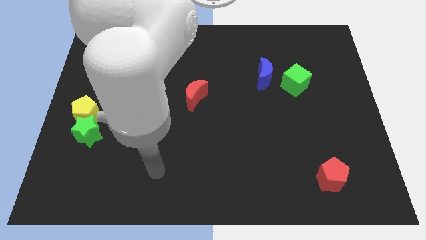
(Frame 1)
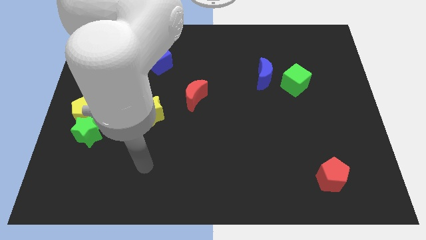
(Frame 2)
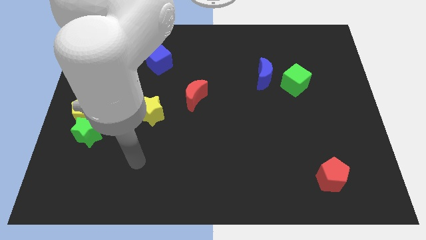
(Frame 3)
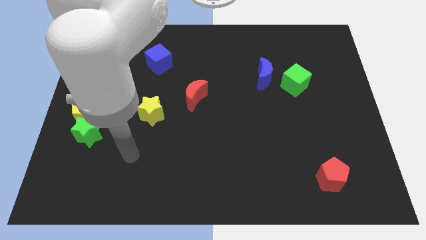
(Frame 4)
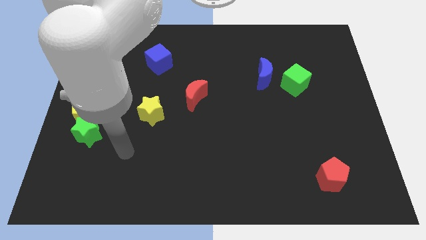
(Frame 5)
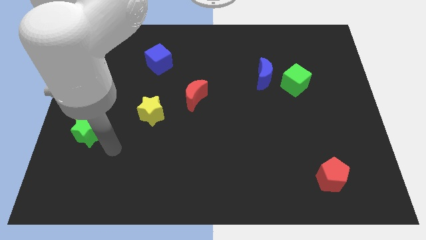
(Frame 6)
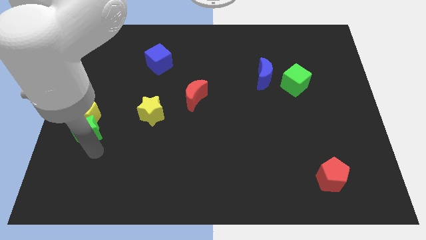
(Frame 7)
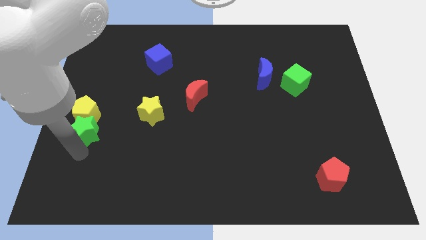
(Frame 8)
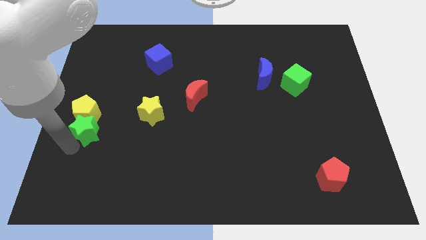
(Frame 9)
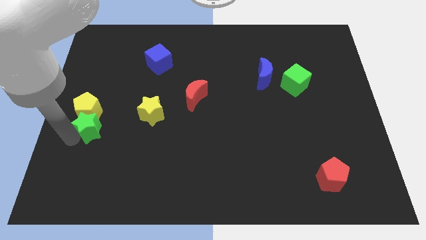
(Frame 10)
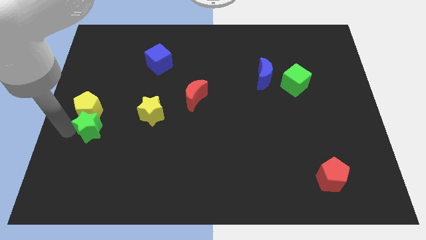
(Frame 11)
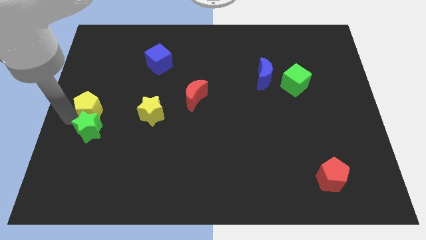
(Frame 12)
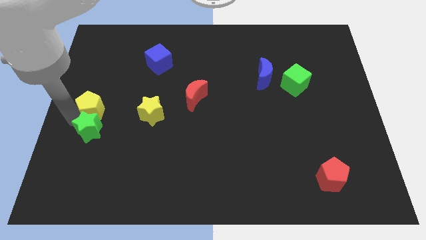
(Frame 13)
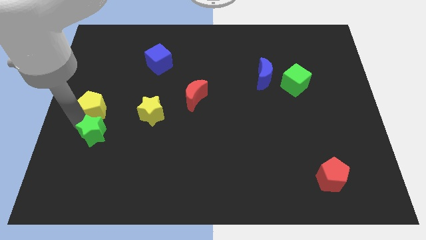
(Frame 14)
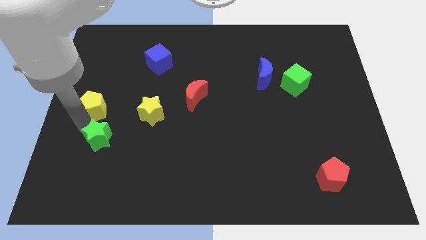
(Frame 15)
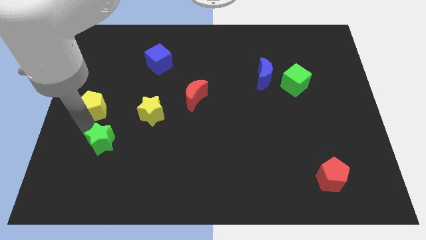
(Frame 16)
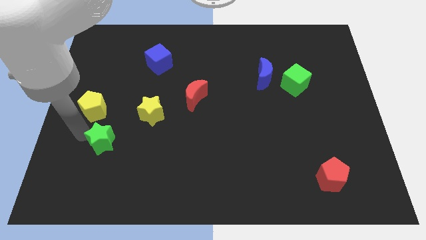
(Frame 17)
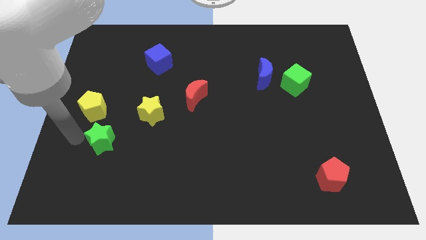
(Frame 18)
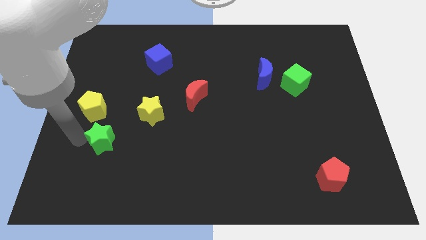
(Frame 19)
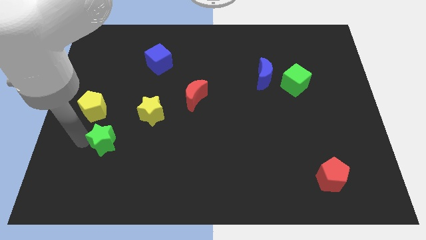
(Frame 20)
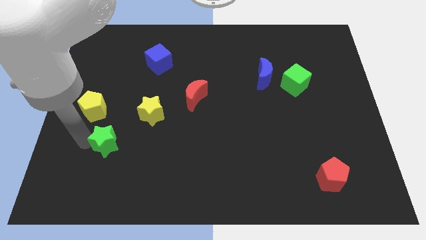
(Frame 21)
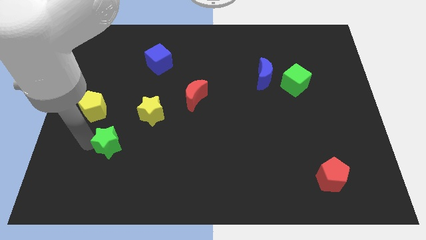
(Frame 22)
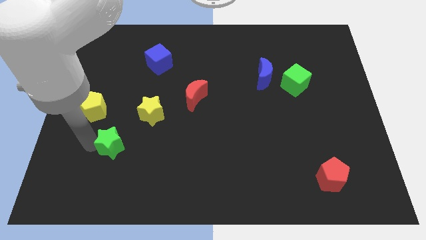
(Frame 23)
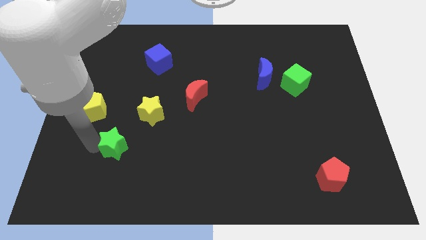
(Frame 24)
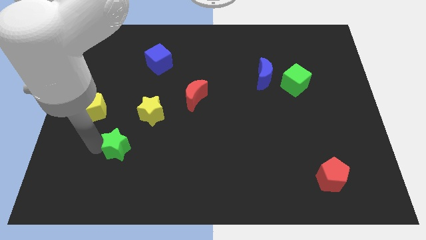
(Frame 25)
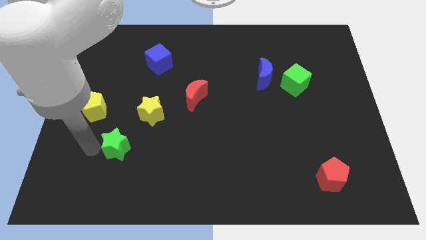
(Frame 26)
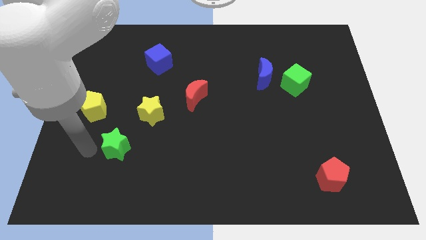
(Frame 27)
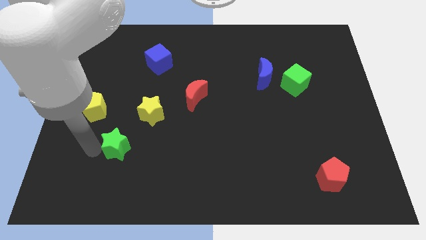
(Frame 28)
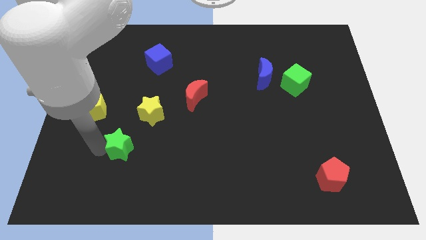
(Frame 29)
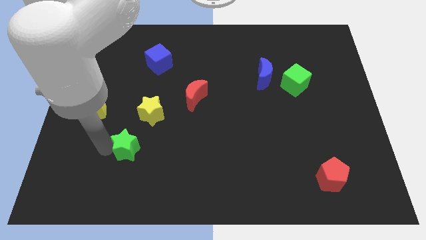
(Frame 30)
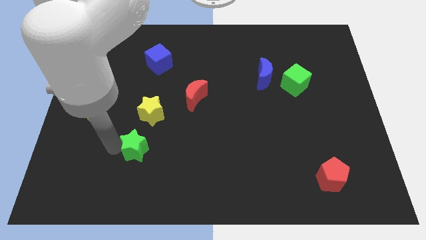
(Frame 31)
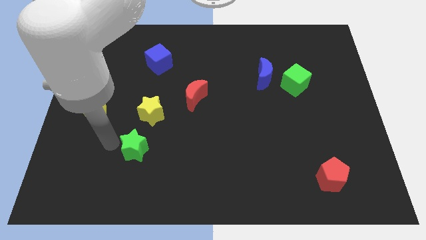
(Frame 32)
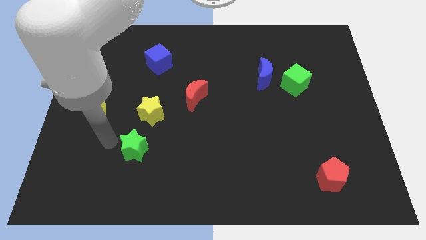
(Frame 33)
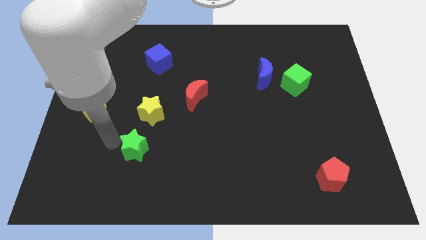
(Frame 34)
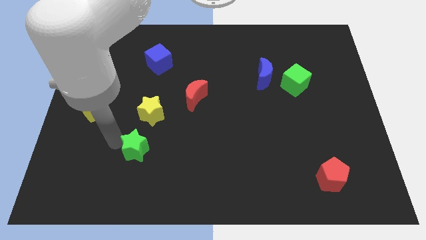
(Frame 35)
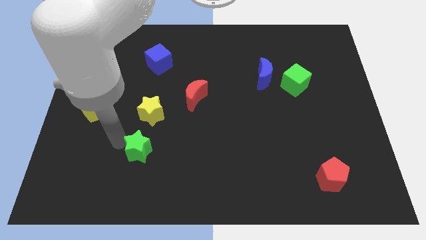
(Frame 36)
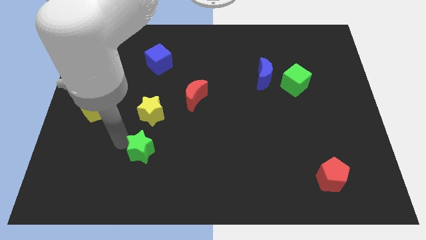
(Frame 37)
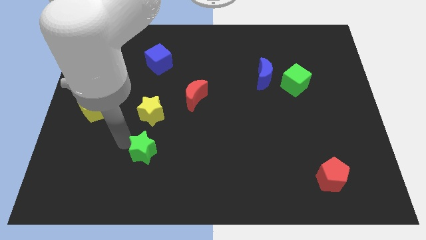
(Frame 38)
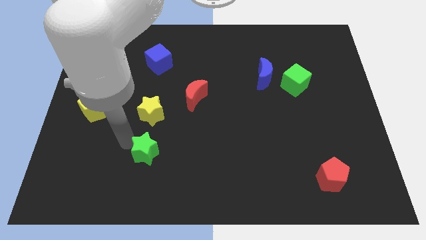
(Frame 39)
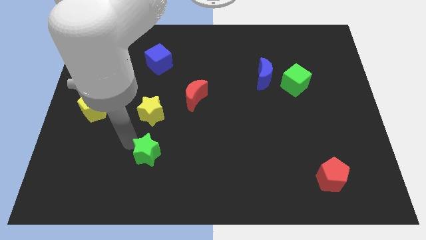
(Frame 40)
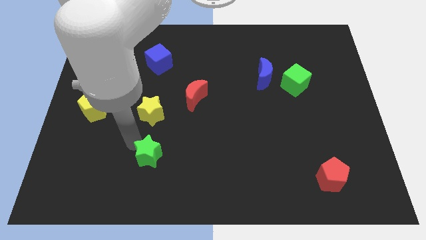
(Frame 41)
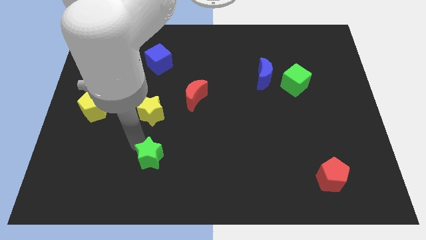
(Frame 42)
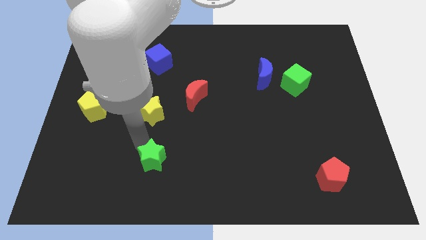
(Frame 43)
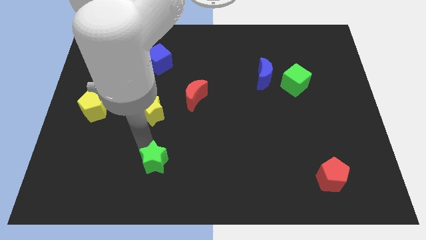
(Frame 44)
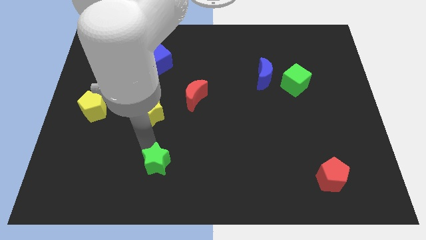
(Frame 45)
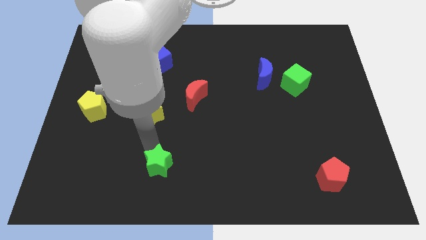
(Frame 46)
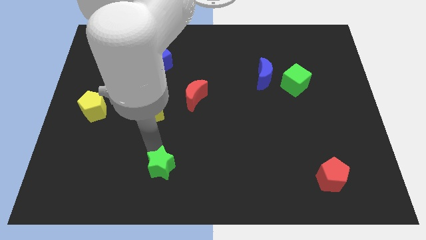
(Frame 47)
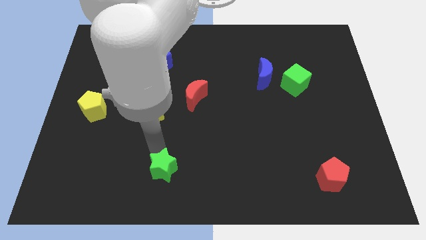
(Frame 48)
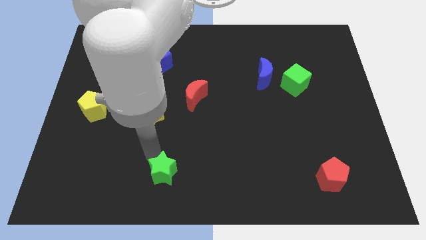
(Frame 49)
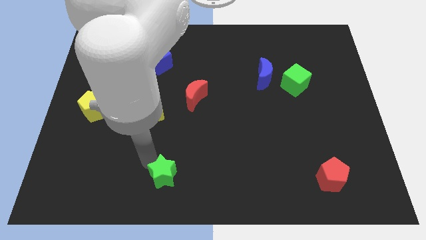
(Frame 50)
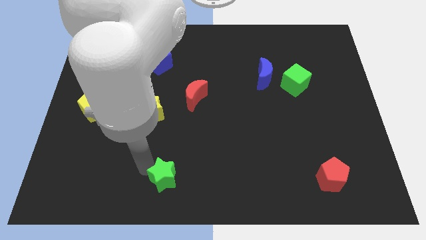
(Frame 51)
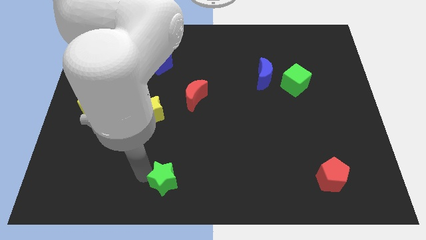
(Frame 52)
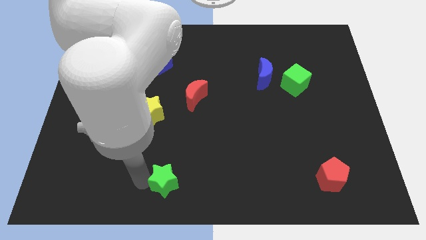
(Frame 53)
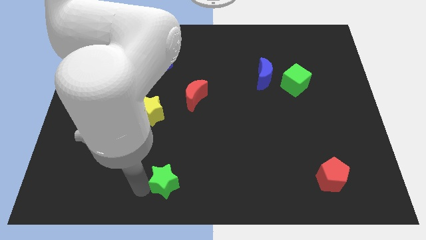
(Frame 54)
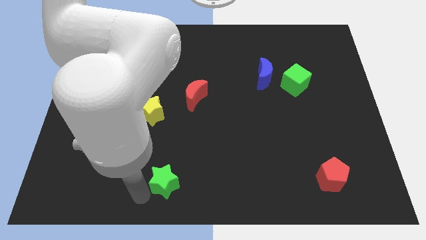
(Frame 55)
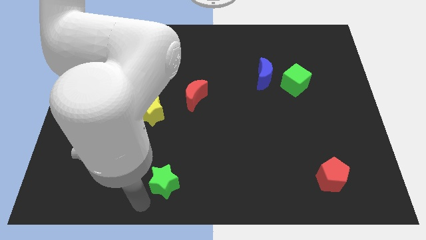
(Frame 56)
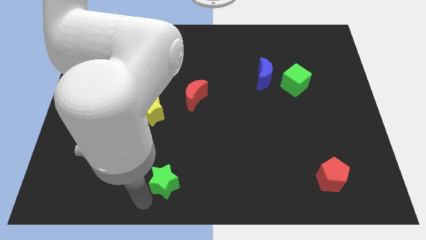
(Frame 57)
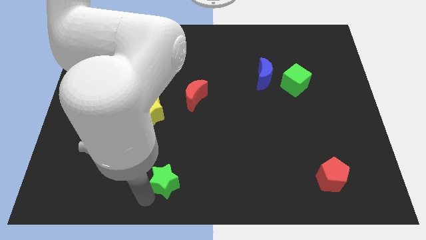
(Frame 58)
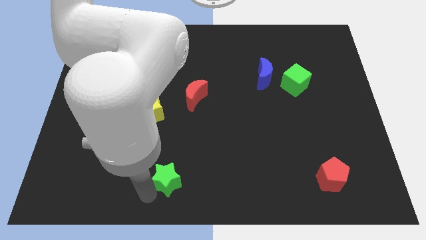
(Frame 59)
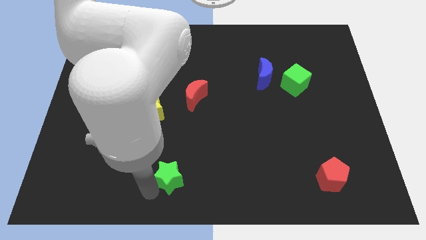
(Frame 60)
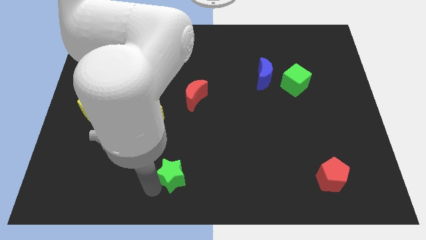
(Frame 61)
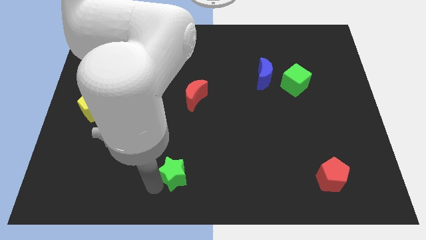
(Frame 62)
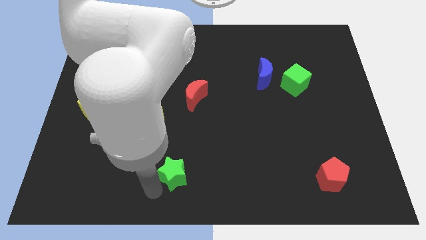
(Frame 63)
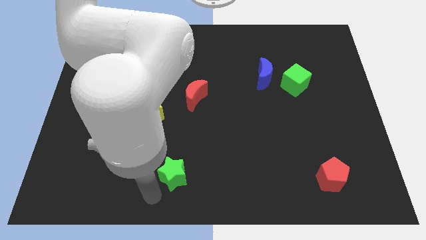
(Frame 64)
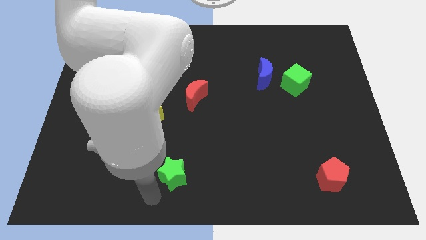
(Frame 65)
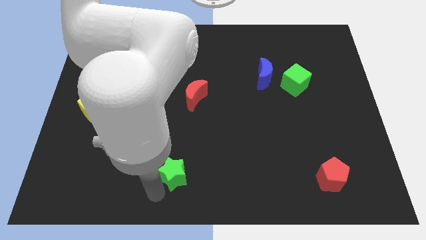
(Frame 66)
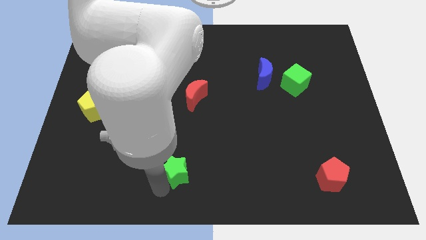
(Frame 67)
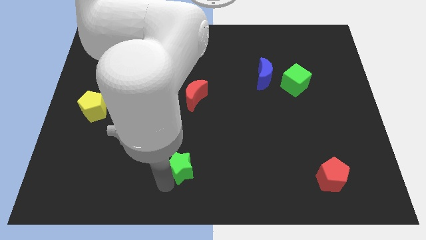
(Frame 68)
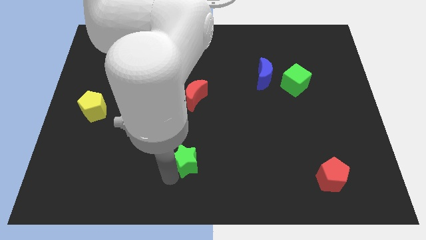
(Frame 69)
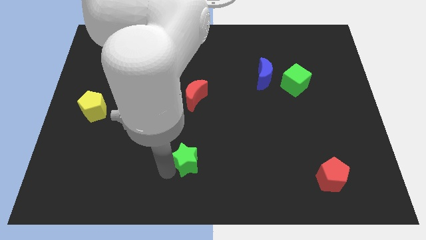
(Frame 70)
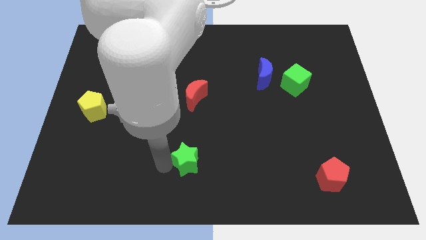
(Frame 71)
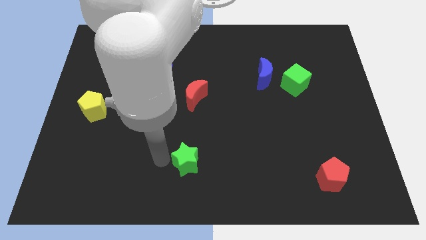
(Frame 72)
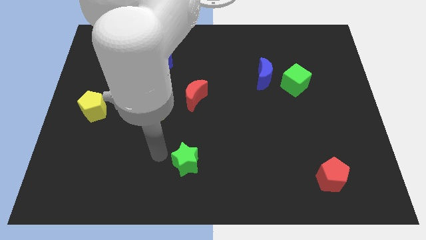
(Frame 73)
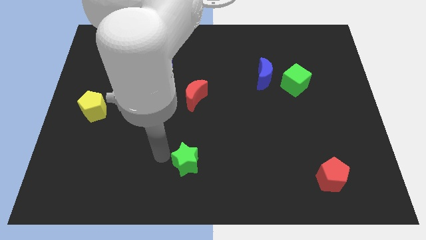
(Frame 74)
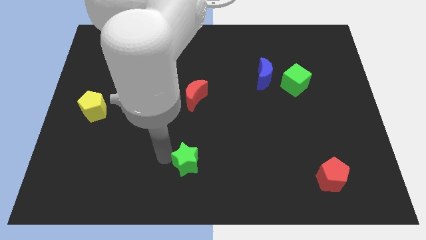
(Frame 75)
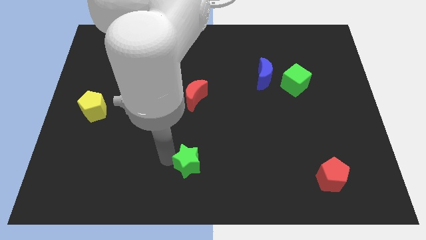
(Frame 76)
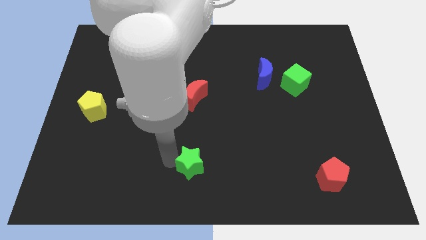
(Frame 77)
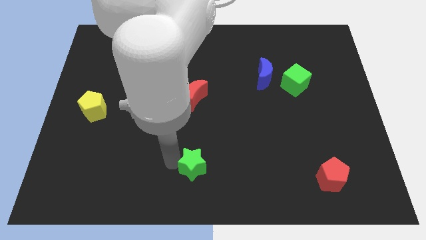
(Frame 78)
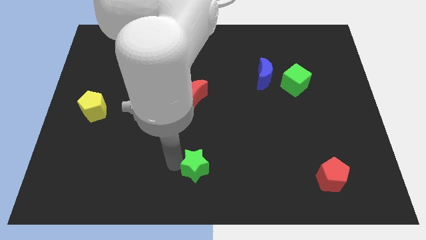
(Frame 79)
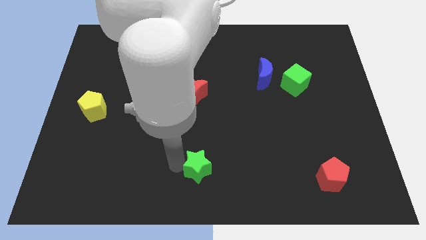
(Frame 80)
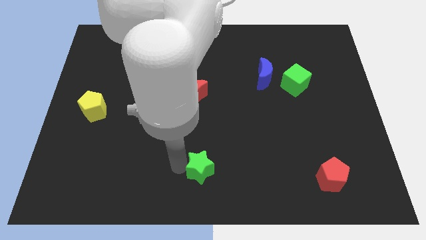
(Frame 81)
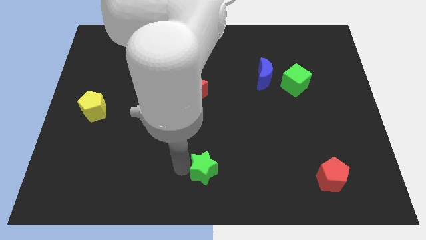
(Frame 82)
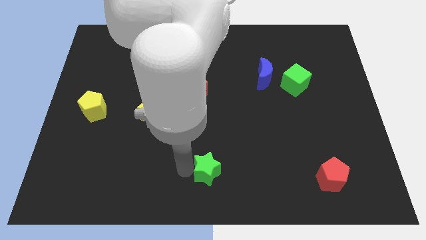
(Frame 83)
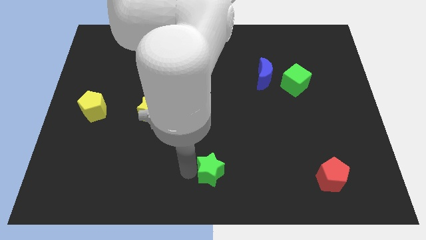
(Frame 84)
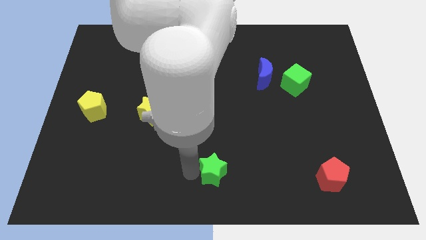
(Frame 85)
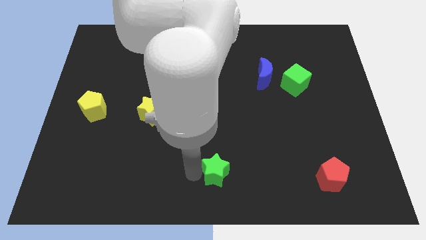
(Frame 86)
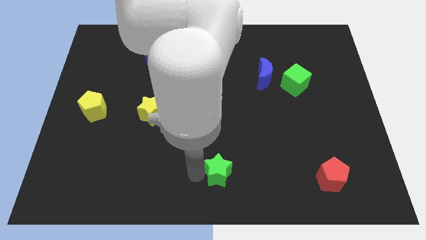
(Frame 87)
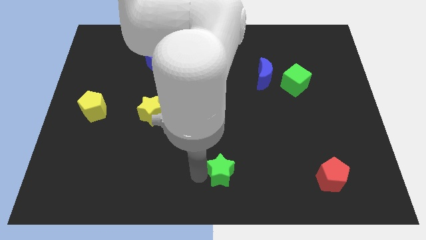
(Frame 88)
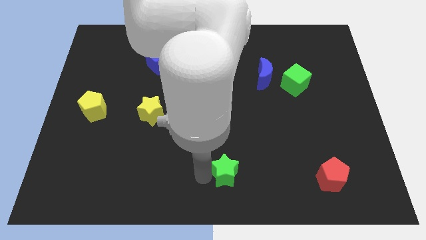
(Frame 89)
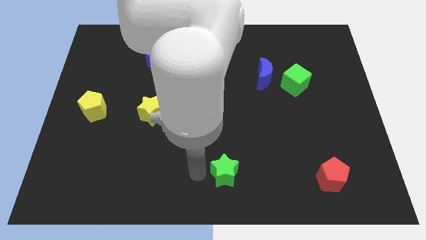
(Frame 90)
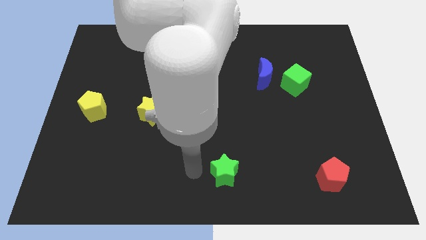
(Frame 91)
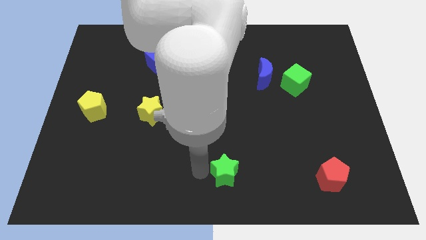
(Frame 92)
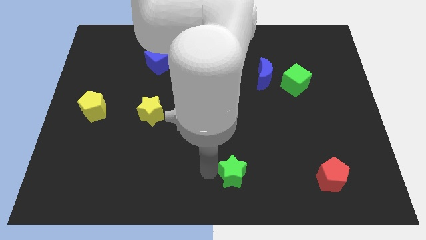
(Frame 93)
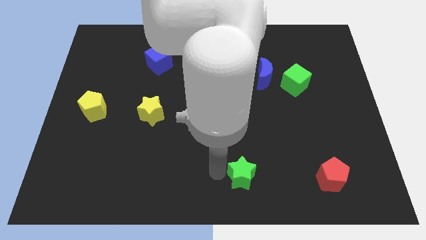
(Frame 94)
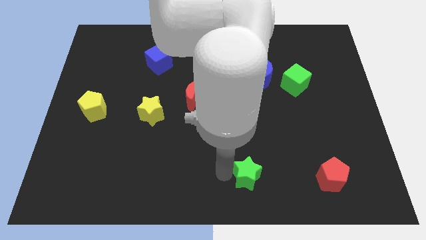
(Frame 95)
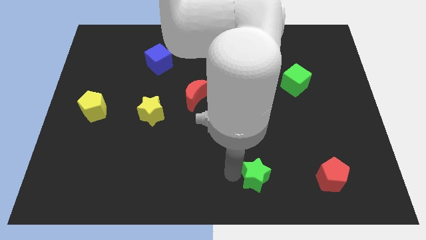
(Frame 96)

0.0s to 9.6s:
move the green star to the left of the red pentagon
